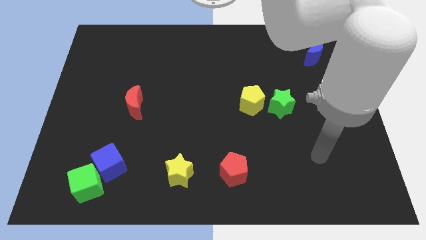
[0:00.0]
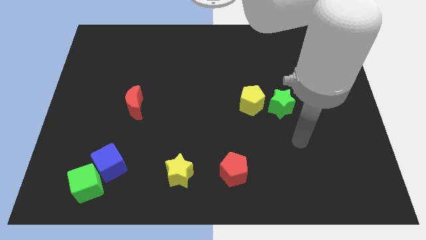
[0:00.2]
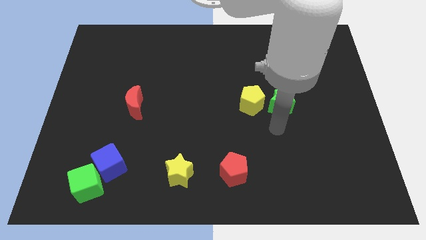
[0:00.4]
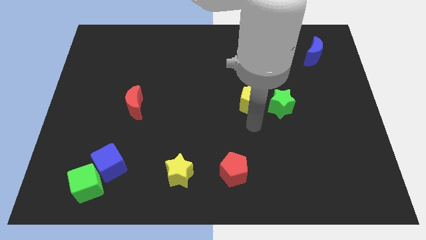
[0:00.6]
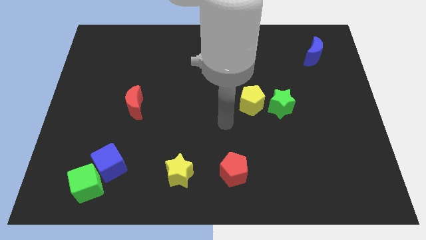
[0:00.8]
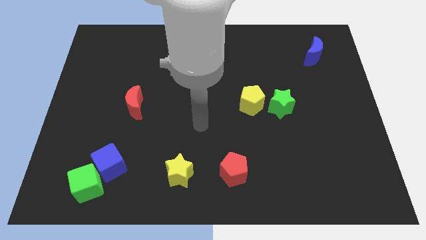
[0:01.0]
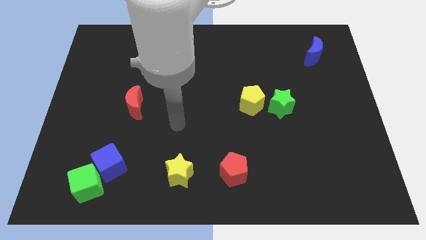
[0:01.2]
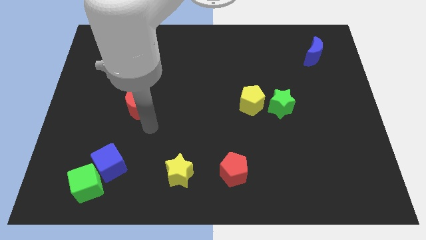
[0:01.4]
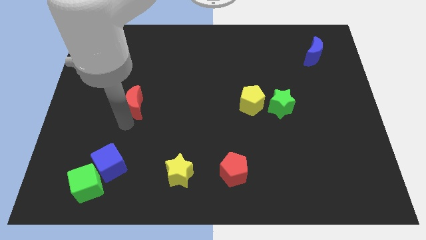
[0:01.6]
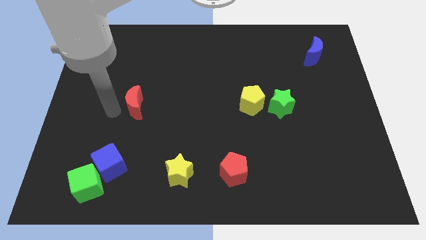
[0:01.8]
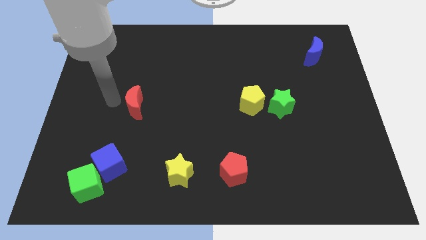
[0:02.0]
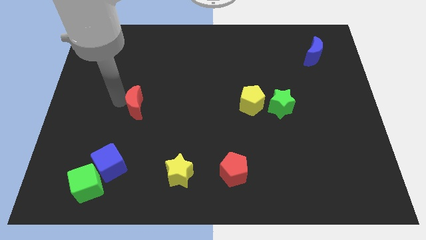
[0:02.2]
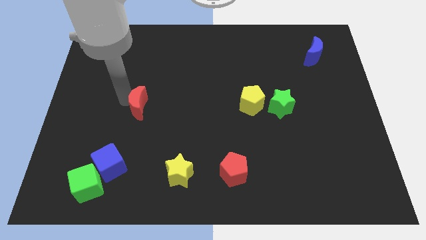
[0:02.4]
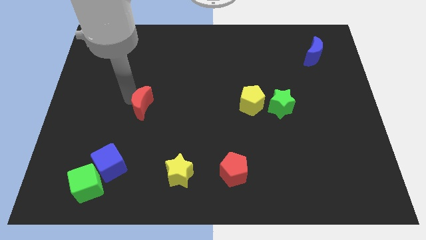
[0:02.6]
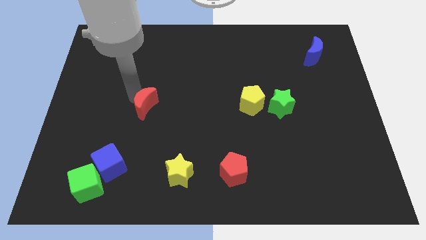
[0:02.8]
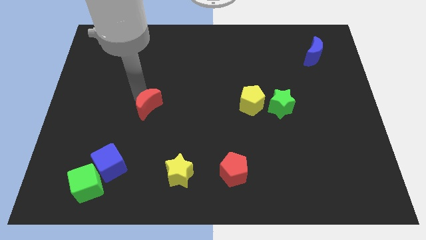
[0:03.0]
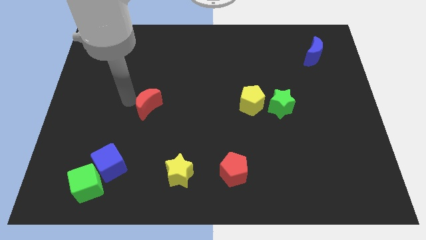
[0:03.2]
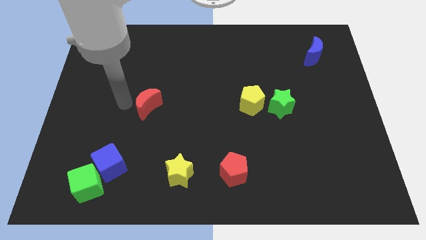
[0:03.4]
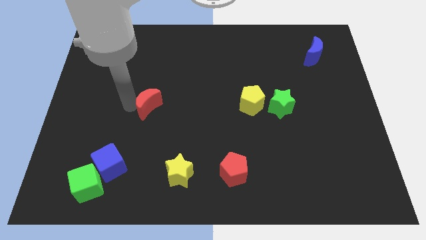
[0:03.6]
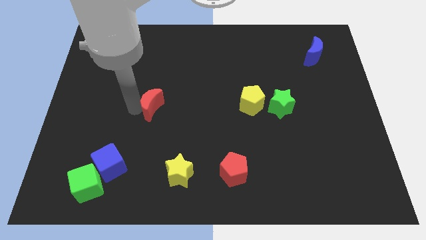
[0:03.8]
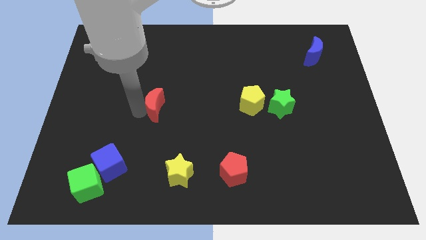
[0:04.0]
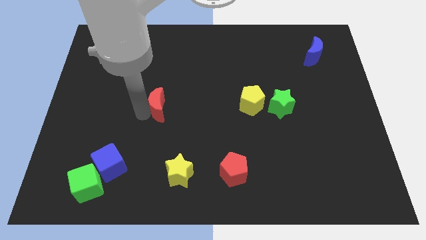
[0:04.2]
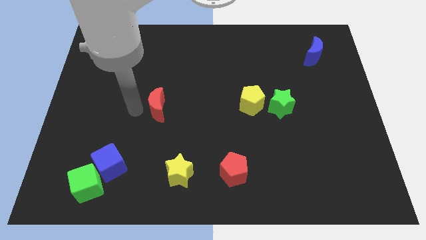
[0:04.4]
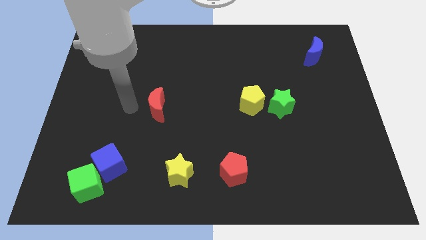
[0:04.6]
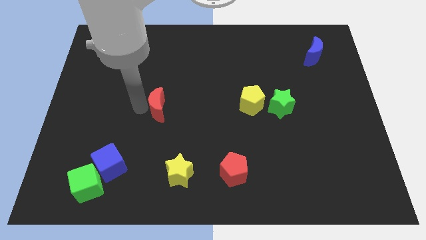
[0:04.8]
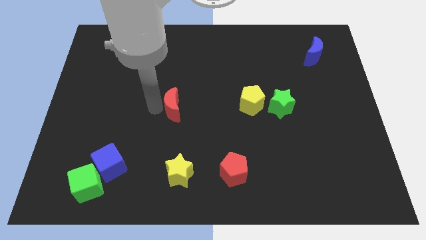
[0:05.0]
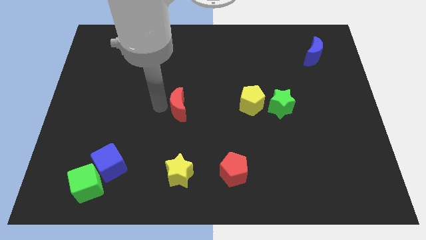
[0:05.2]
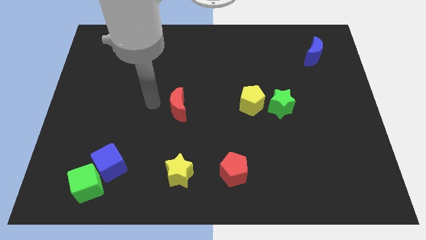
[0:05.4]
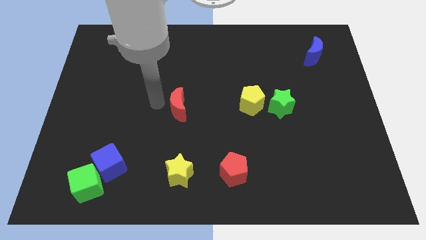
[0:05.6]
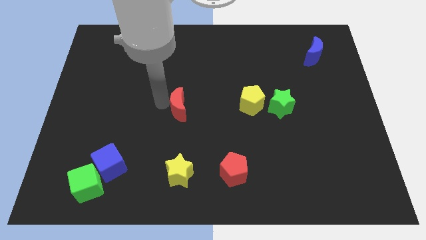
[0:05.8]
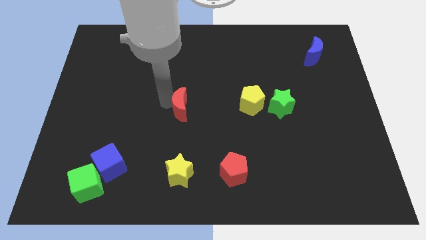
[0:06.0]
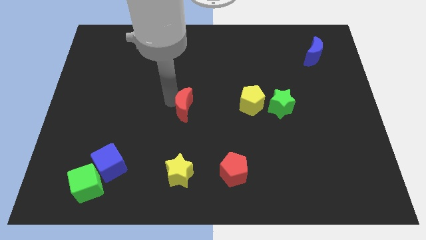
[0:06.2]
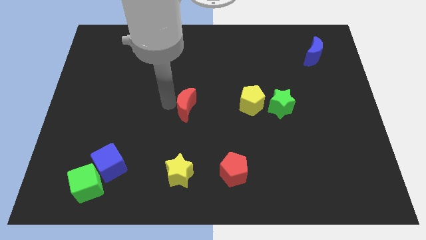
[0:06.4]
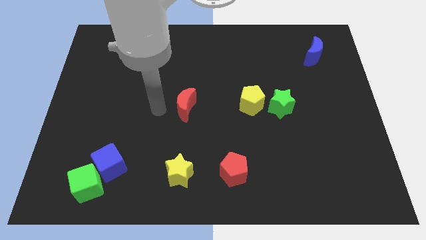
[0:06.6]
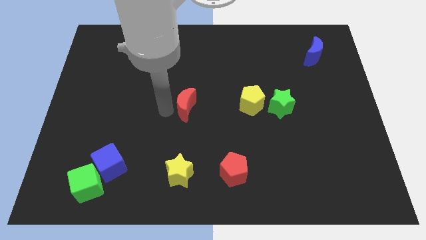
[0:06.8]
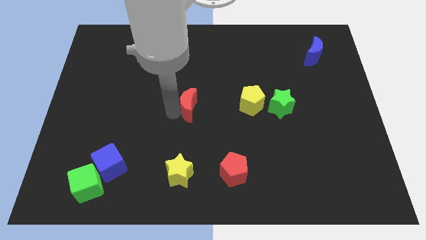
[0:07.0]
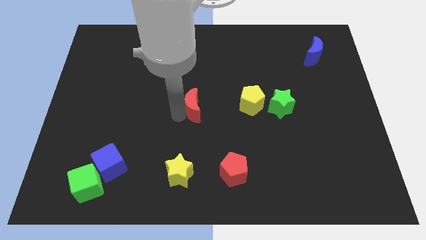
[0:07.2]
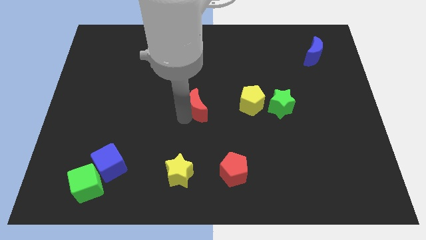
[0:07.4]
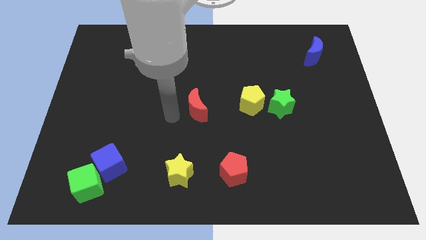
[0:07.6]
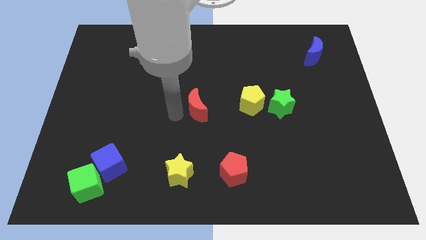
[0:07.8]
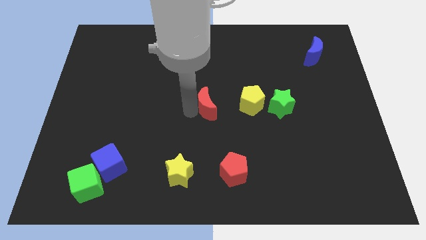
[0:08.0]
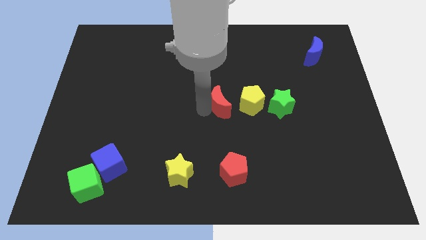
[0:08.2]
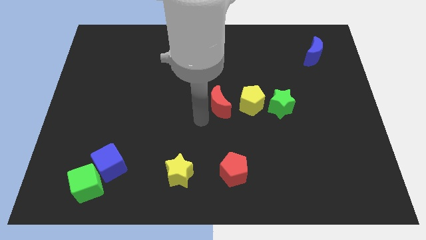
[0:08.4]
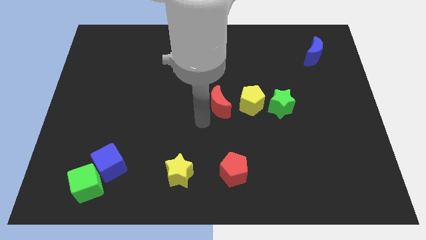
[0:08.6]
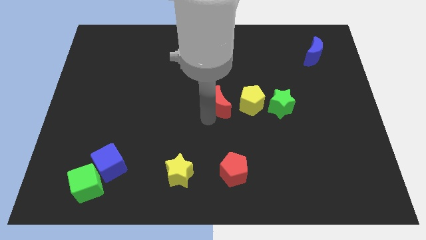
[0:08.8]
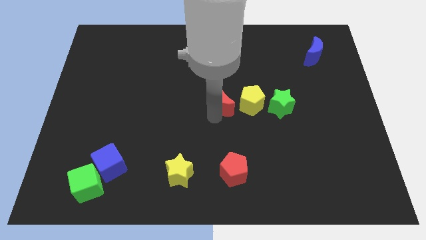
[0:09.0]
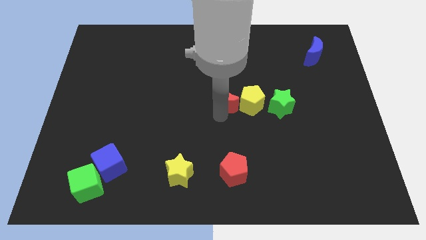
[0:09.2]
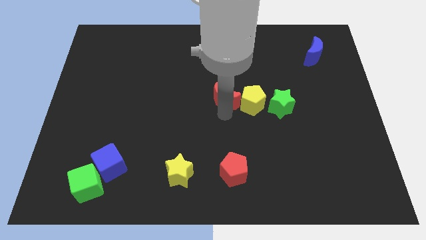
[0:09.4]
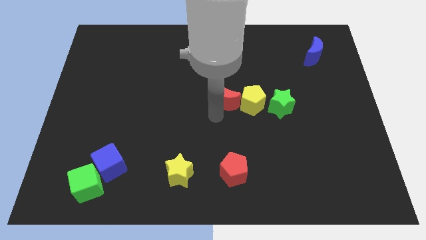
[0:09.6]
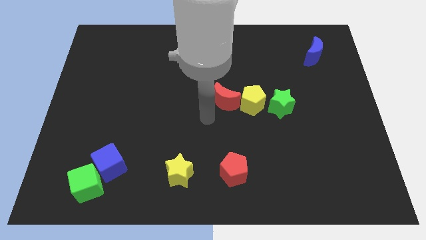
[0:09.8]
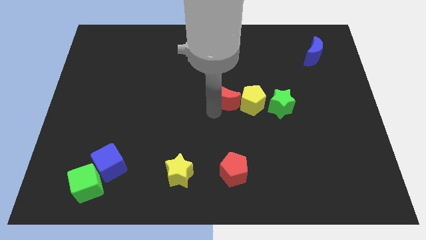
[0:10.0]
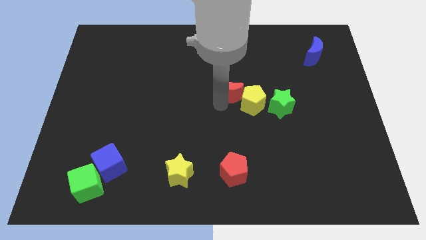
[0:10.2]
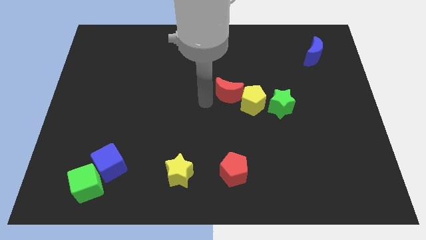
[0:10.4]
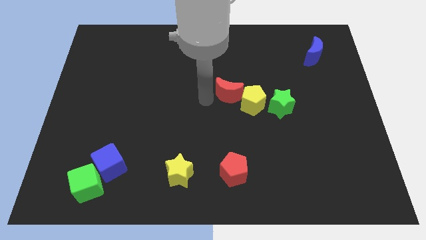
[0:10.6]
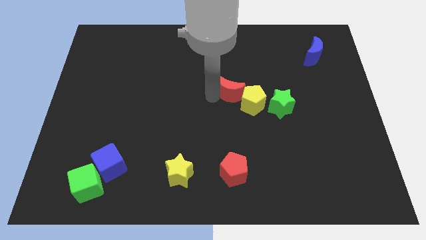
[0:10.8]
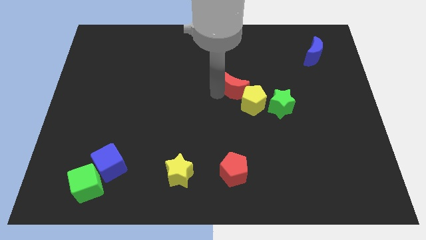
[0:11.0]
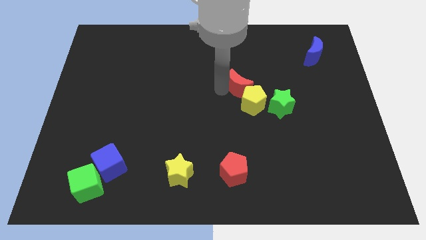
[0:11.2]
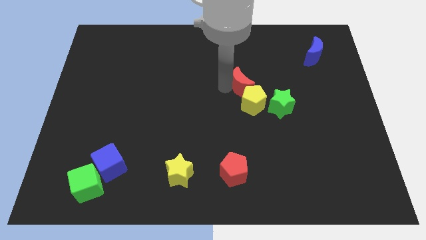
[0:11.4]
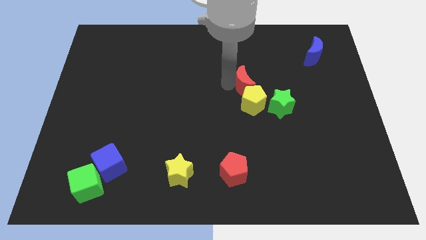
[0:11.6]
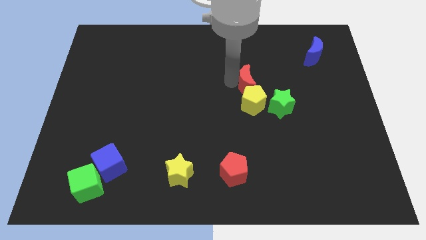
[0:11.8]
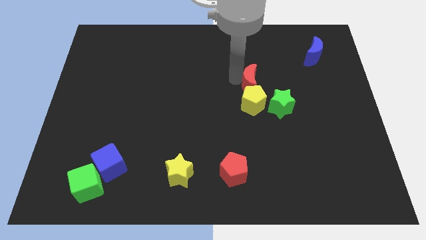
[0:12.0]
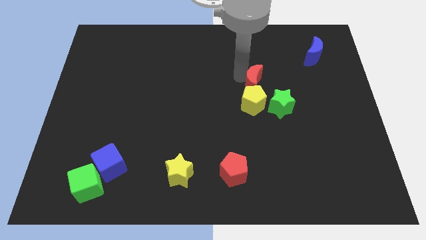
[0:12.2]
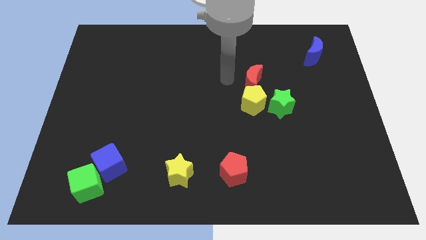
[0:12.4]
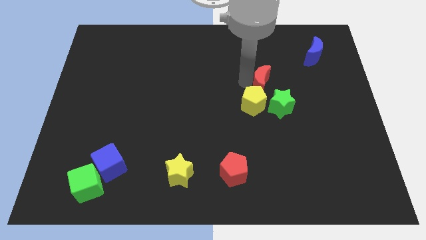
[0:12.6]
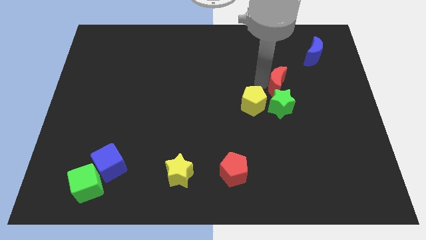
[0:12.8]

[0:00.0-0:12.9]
move the red moon to the top right of the green star
